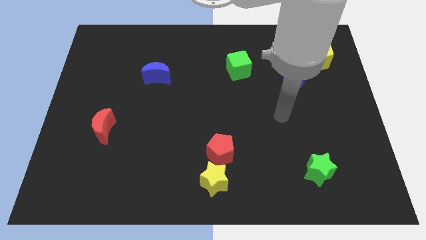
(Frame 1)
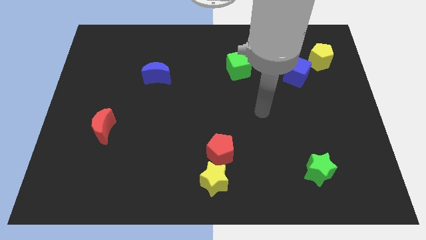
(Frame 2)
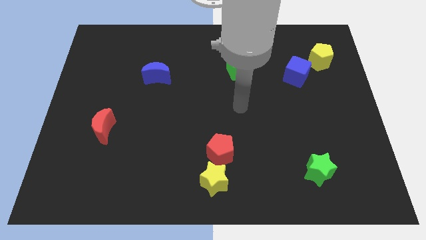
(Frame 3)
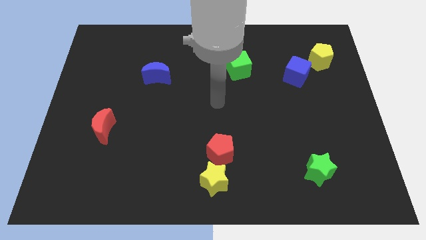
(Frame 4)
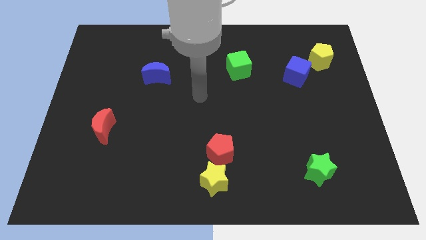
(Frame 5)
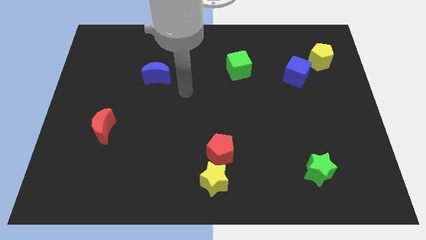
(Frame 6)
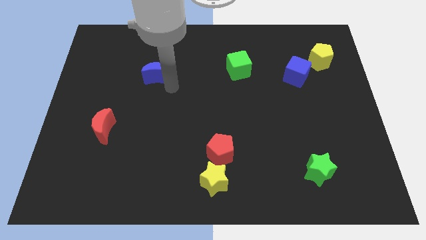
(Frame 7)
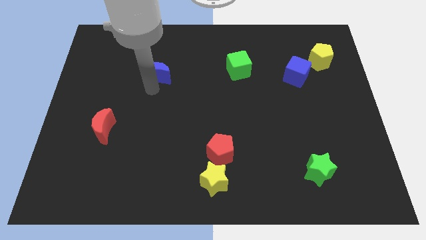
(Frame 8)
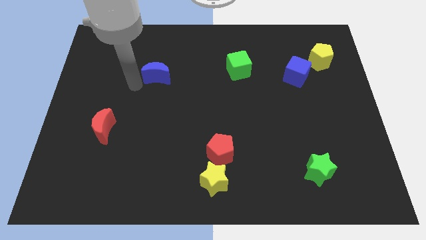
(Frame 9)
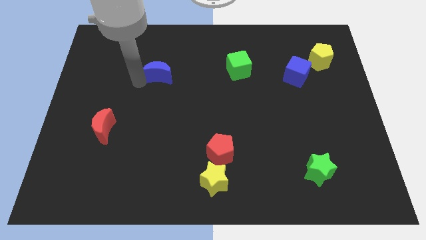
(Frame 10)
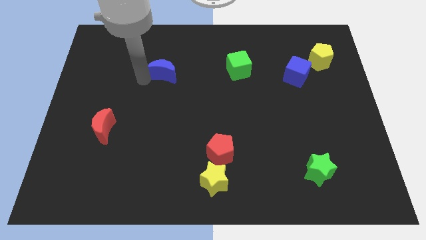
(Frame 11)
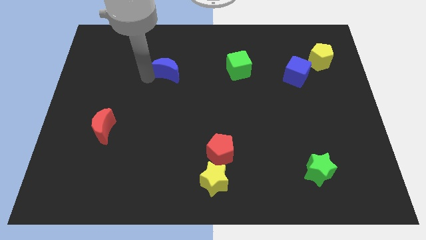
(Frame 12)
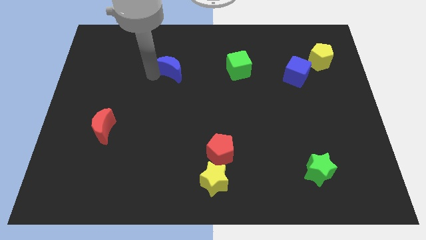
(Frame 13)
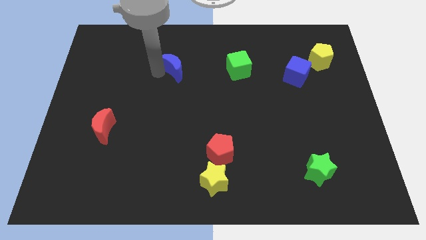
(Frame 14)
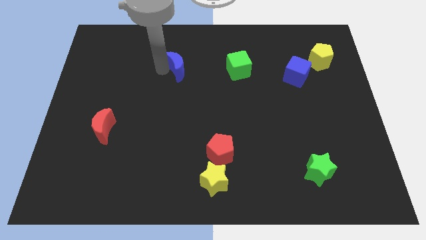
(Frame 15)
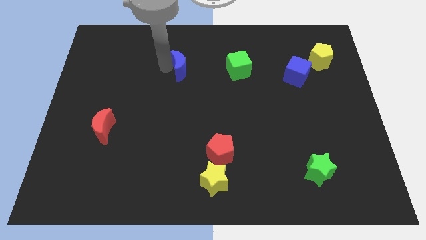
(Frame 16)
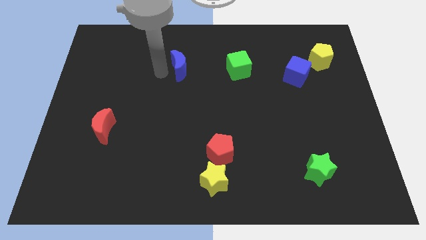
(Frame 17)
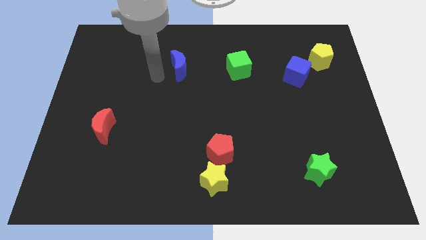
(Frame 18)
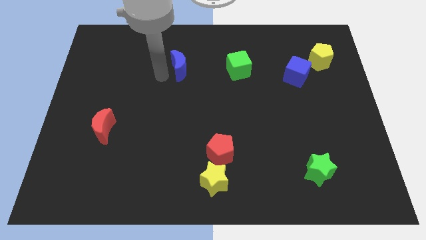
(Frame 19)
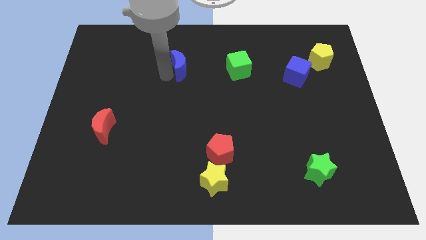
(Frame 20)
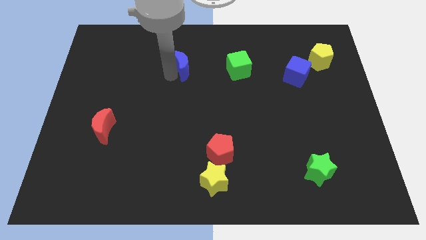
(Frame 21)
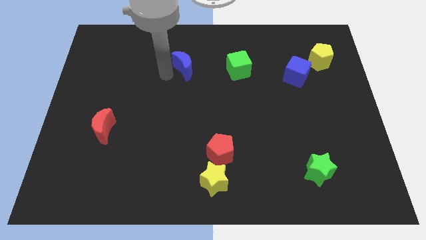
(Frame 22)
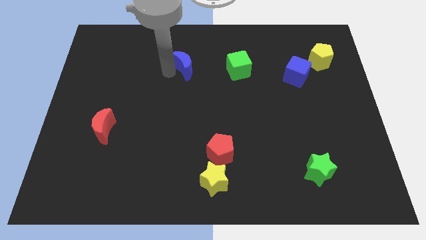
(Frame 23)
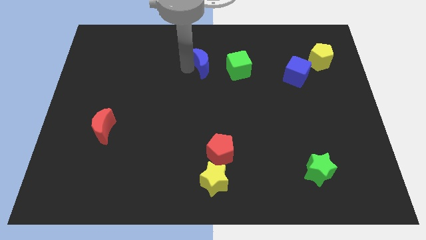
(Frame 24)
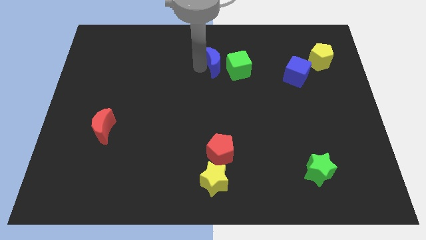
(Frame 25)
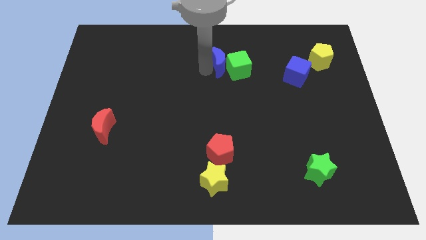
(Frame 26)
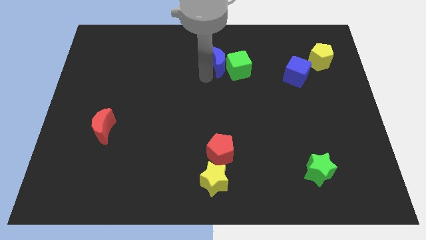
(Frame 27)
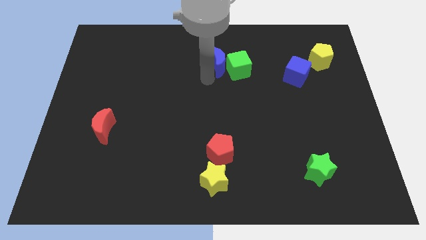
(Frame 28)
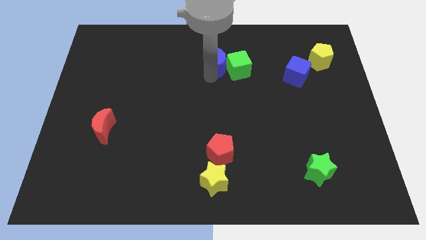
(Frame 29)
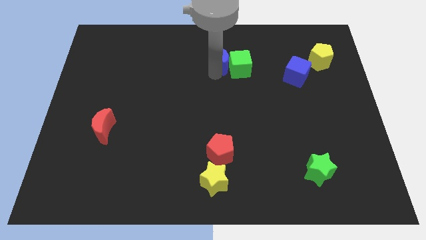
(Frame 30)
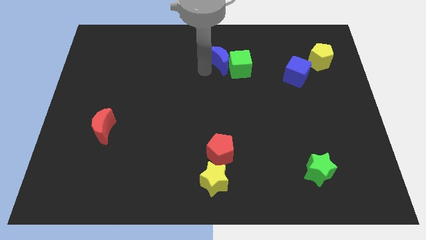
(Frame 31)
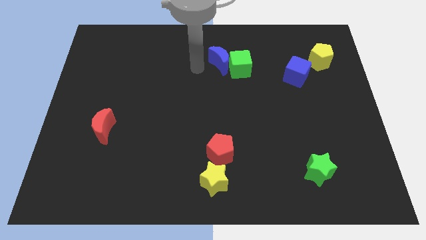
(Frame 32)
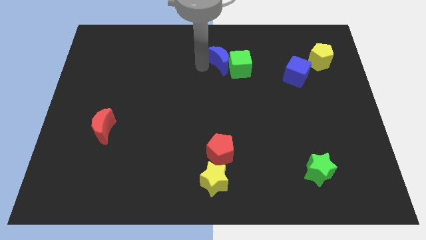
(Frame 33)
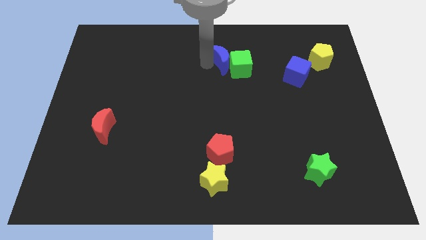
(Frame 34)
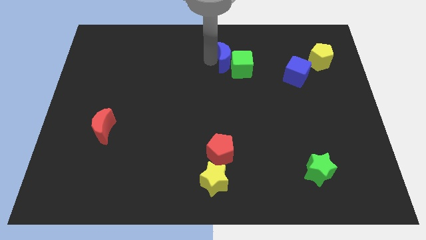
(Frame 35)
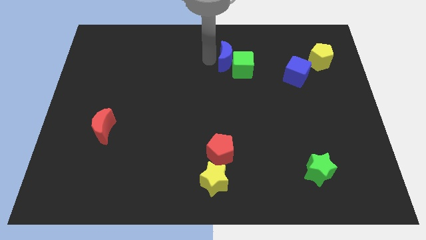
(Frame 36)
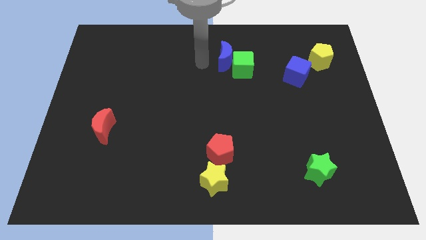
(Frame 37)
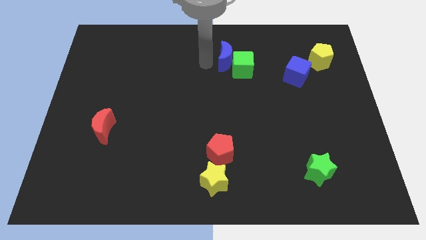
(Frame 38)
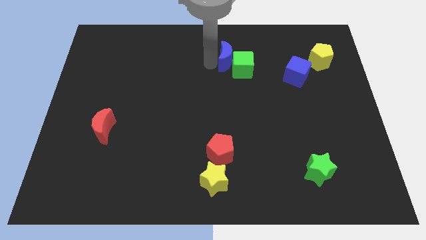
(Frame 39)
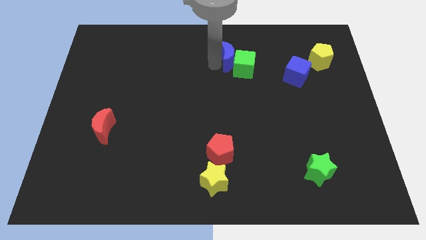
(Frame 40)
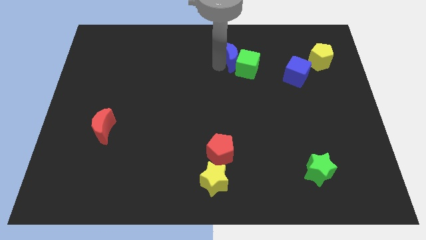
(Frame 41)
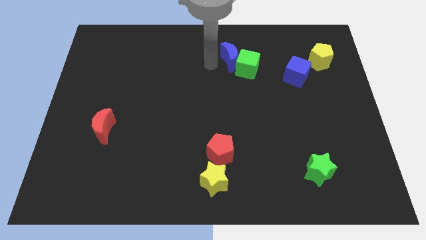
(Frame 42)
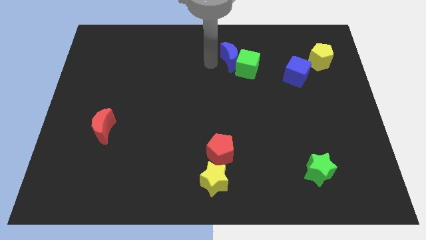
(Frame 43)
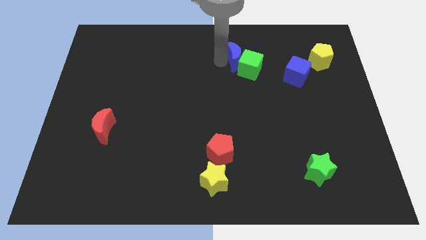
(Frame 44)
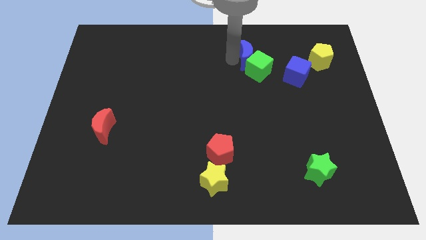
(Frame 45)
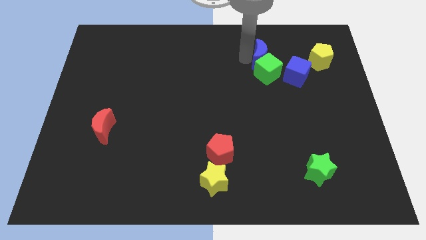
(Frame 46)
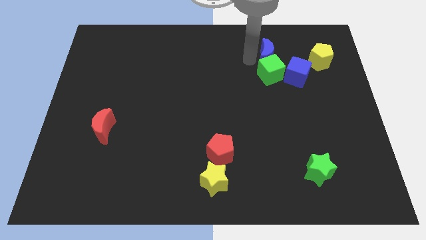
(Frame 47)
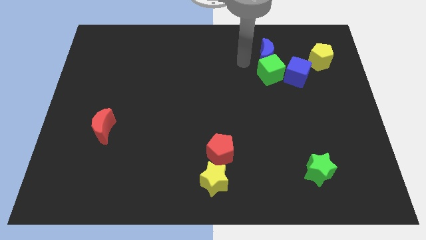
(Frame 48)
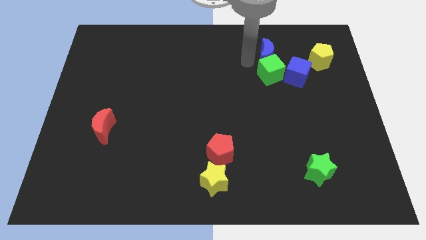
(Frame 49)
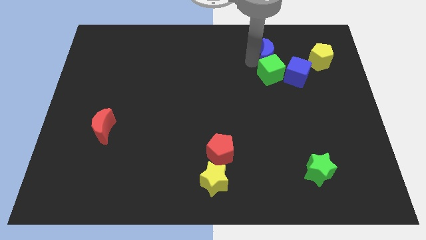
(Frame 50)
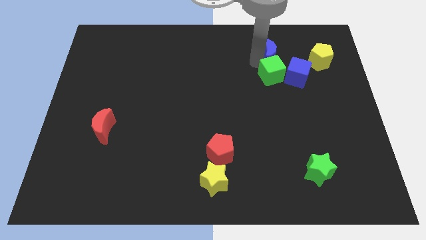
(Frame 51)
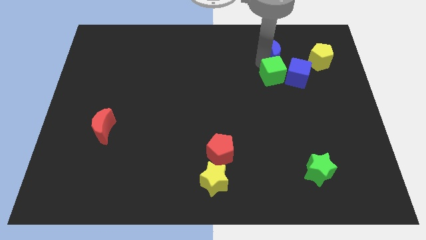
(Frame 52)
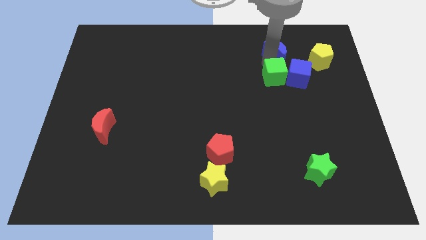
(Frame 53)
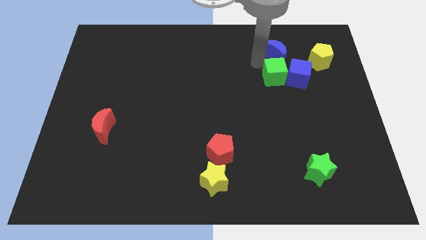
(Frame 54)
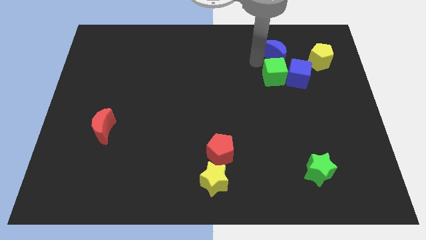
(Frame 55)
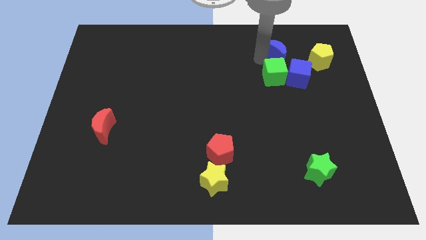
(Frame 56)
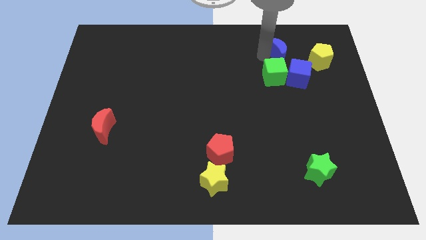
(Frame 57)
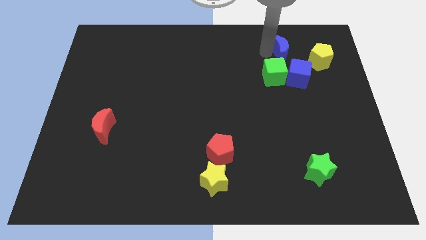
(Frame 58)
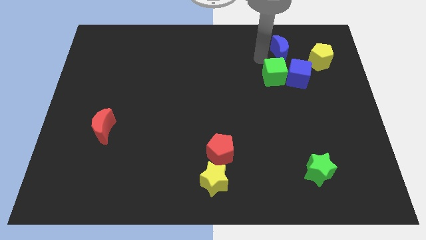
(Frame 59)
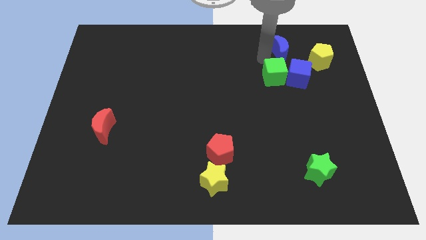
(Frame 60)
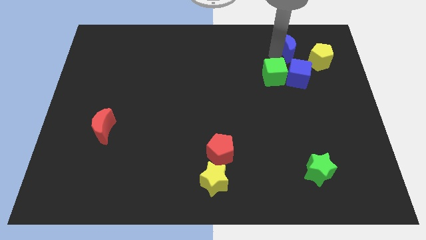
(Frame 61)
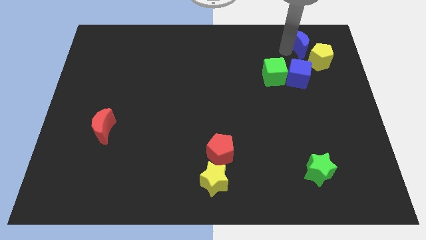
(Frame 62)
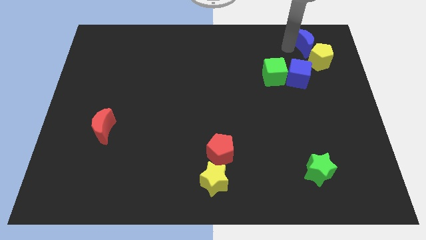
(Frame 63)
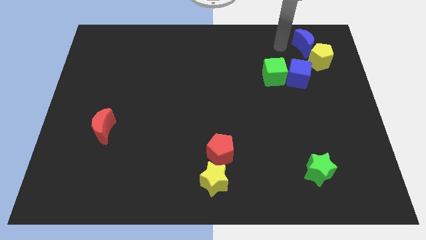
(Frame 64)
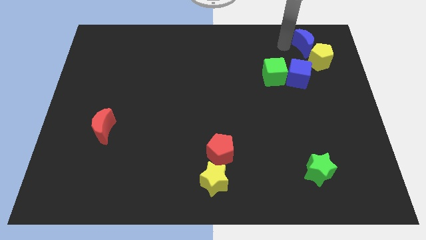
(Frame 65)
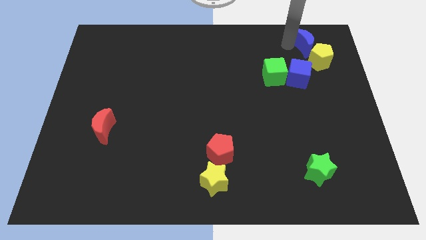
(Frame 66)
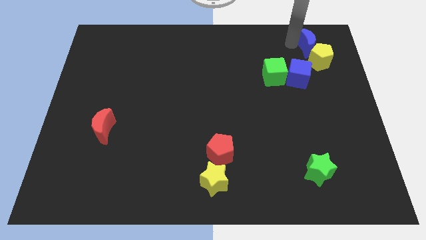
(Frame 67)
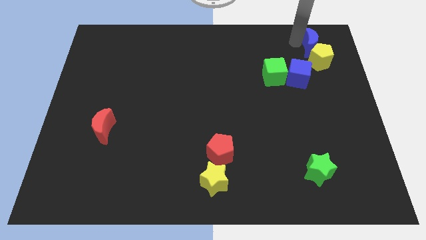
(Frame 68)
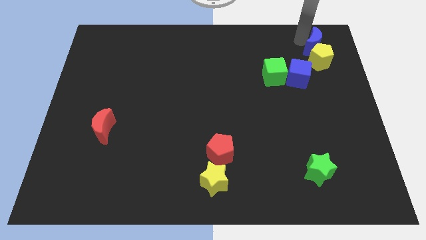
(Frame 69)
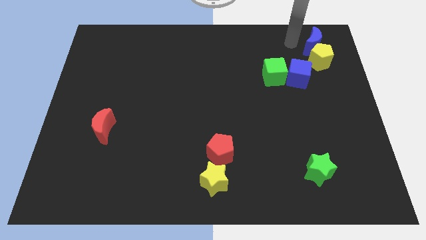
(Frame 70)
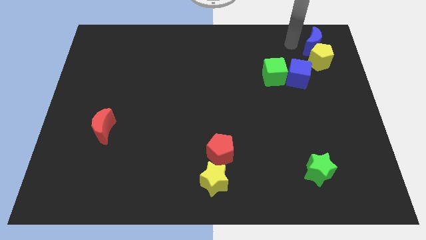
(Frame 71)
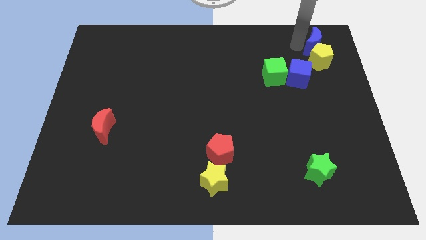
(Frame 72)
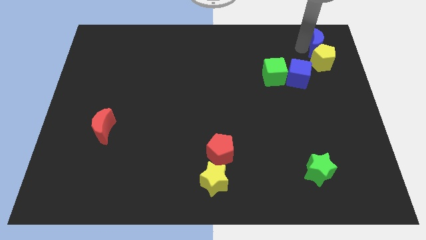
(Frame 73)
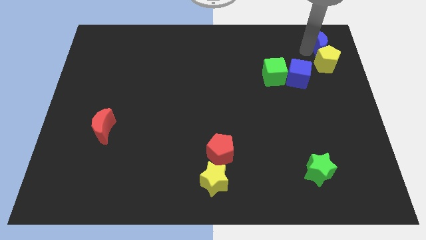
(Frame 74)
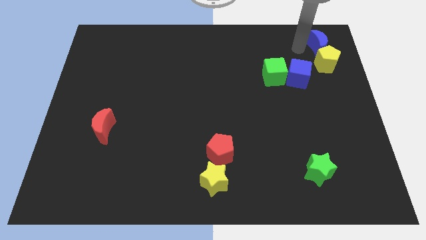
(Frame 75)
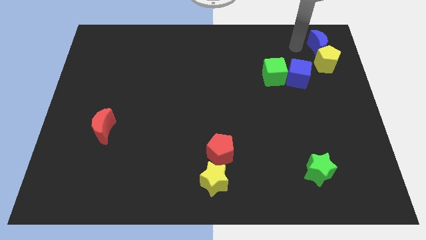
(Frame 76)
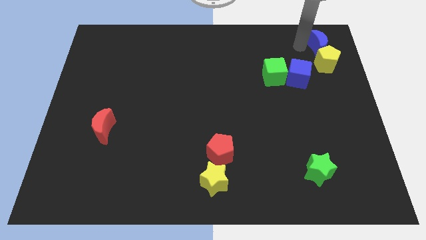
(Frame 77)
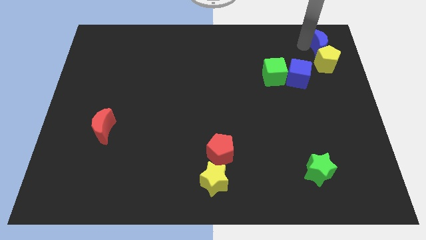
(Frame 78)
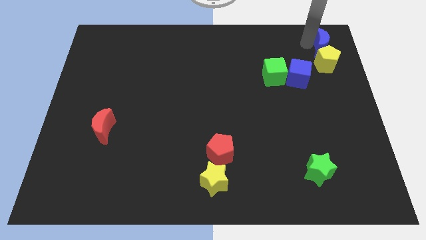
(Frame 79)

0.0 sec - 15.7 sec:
move the blue moon to the top right corner
